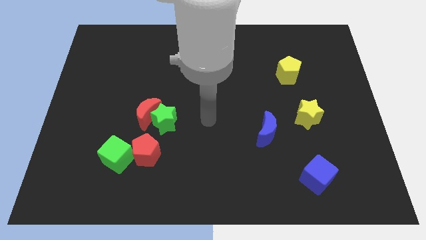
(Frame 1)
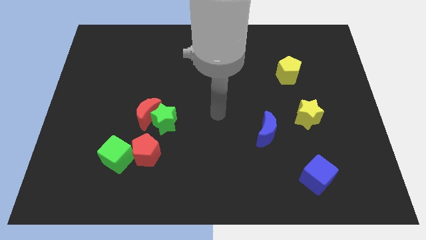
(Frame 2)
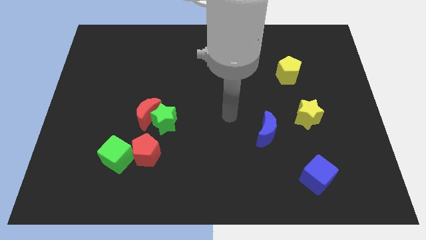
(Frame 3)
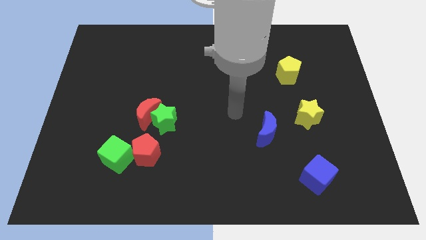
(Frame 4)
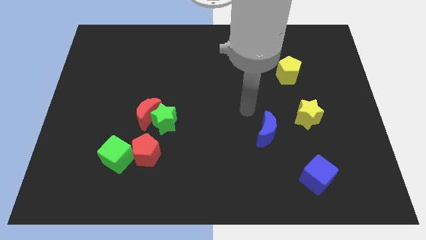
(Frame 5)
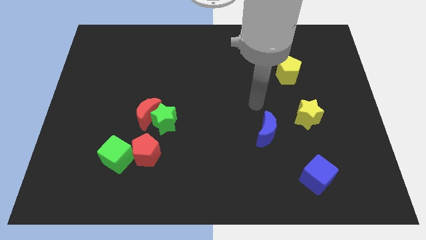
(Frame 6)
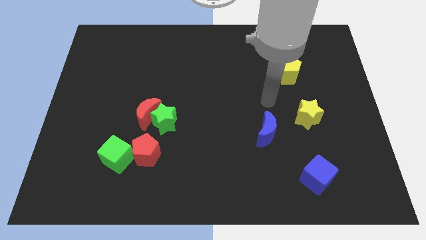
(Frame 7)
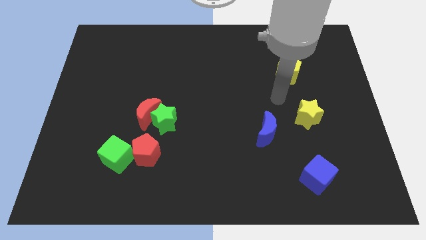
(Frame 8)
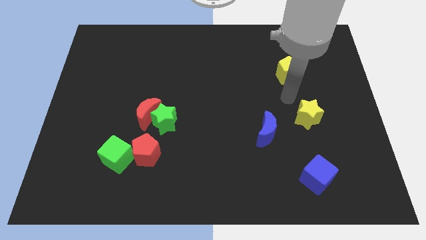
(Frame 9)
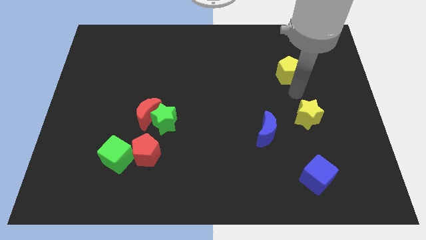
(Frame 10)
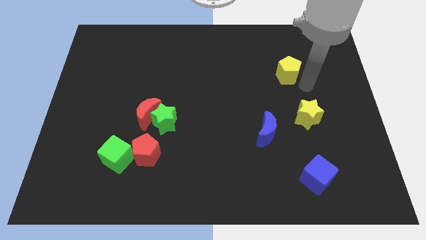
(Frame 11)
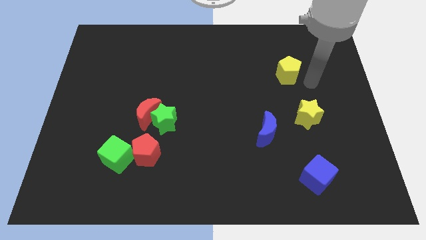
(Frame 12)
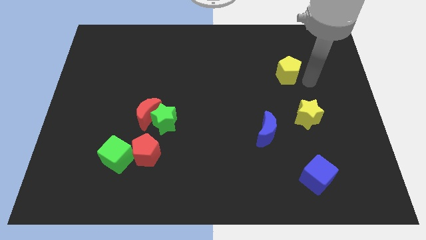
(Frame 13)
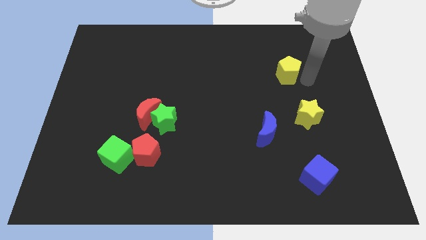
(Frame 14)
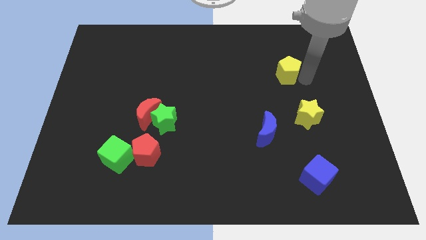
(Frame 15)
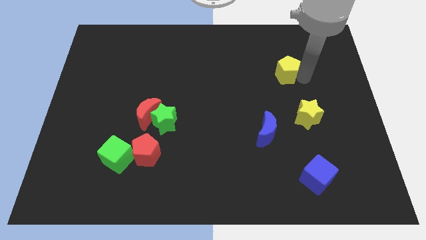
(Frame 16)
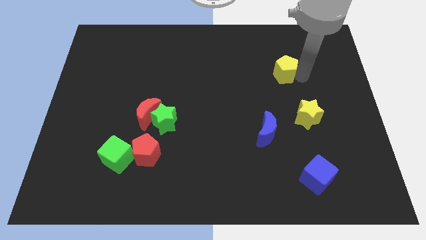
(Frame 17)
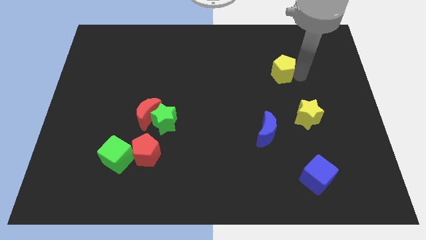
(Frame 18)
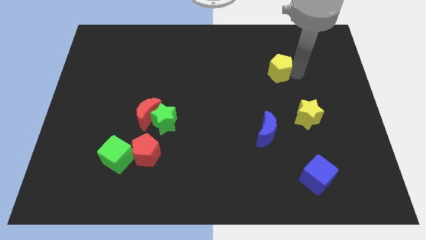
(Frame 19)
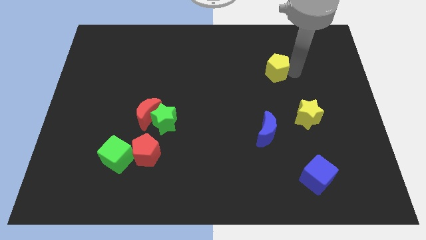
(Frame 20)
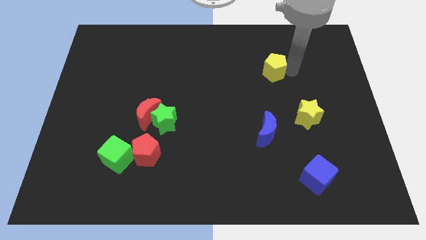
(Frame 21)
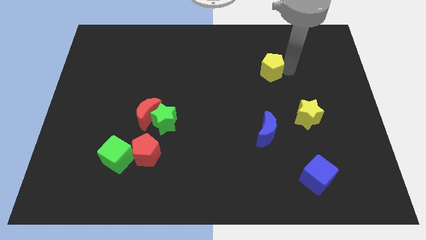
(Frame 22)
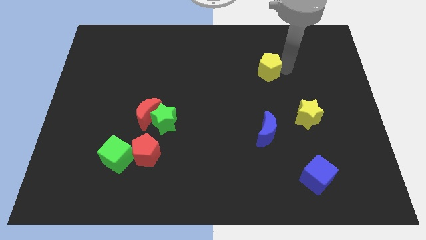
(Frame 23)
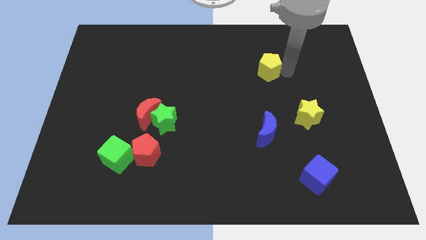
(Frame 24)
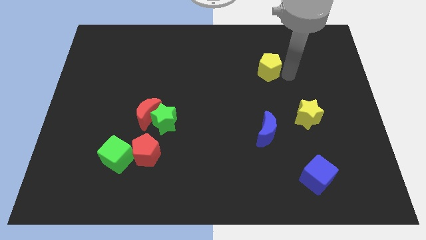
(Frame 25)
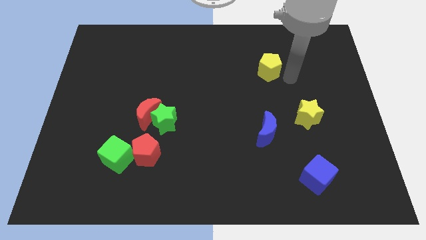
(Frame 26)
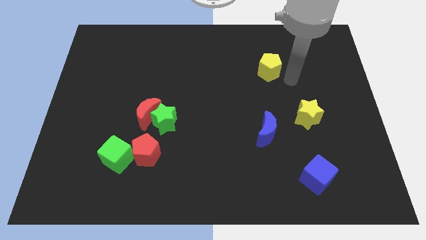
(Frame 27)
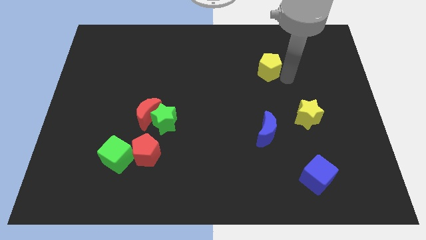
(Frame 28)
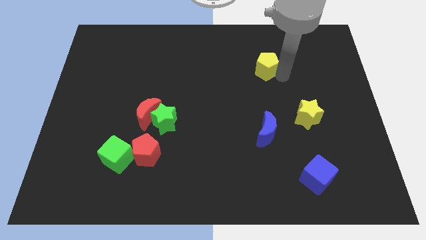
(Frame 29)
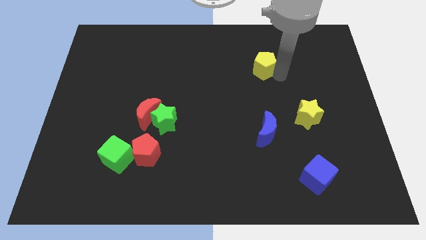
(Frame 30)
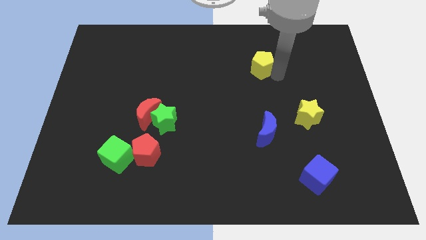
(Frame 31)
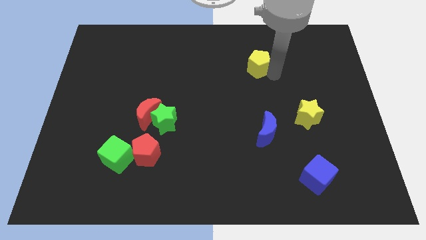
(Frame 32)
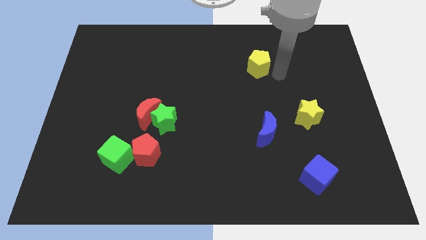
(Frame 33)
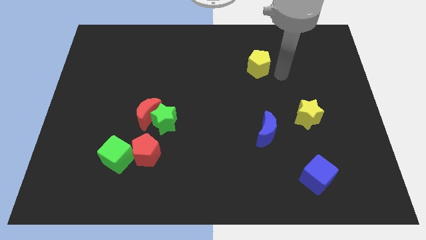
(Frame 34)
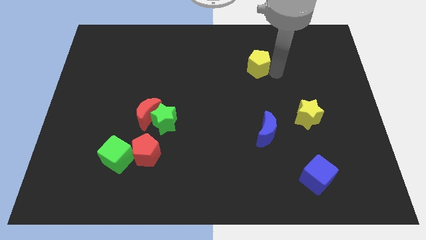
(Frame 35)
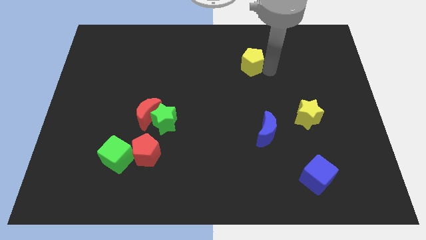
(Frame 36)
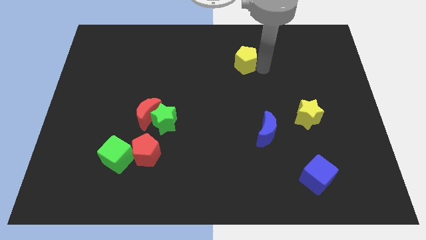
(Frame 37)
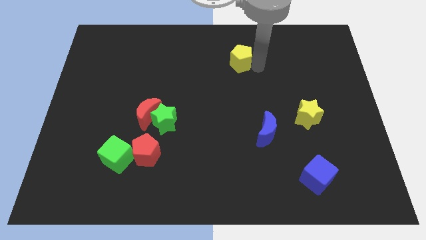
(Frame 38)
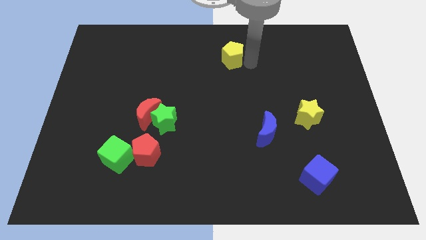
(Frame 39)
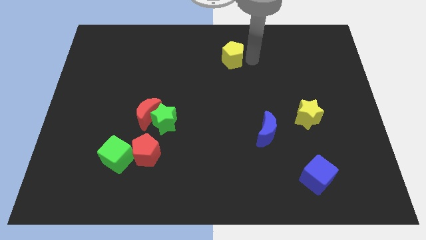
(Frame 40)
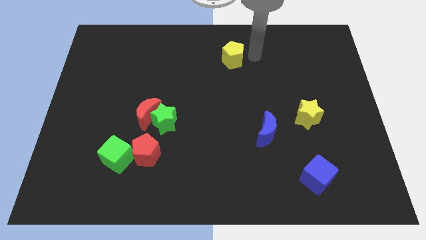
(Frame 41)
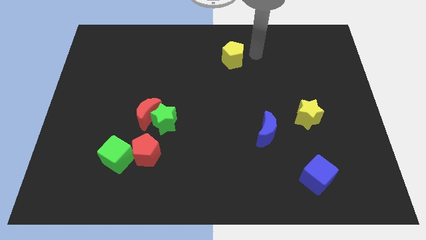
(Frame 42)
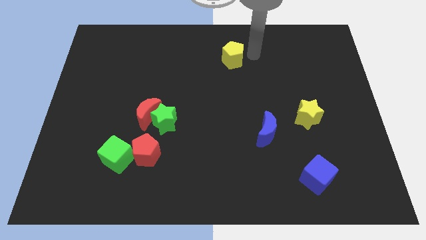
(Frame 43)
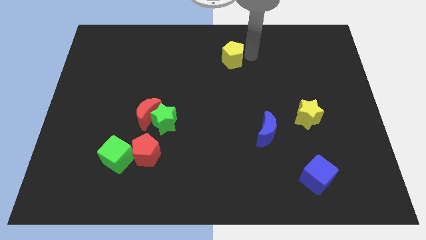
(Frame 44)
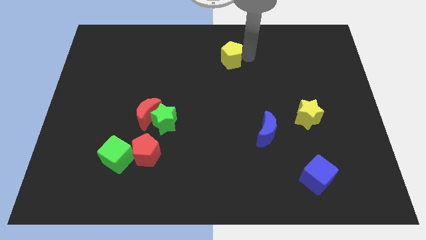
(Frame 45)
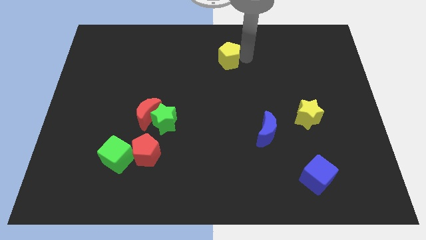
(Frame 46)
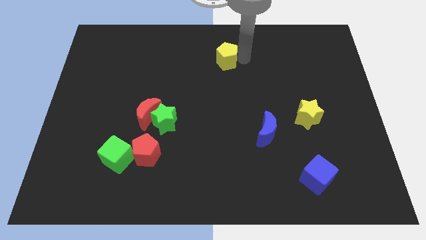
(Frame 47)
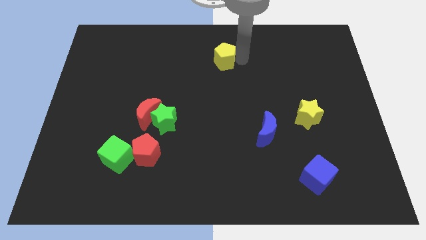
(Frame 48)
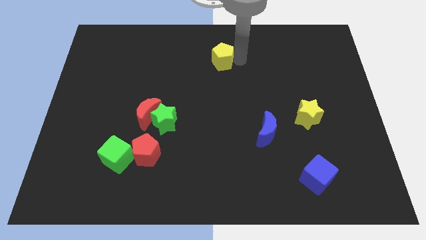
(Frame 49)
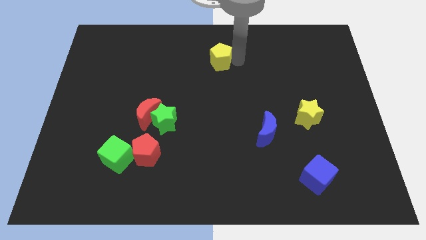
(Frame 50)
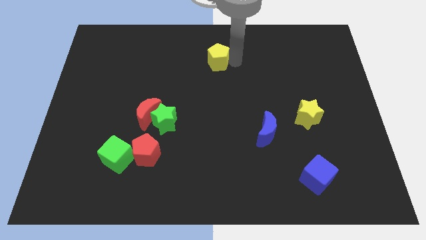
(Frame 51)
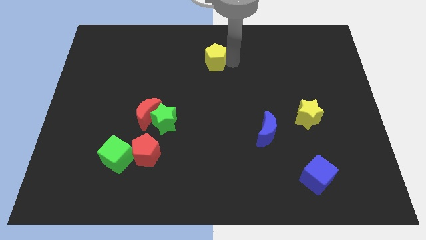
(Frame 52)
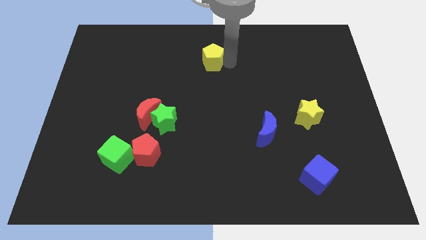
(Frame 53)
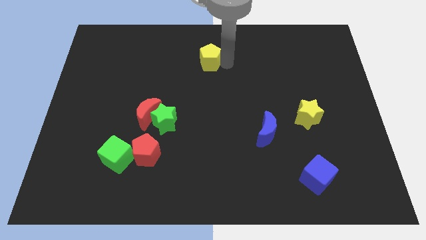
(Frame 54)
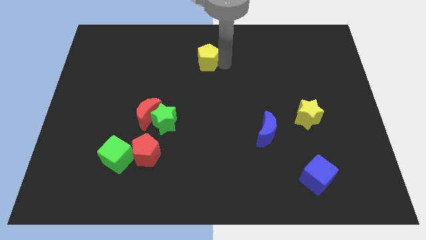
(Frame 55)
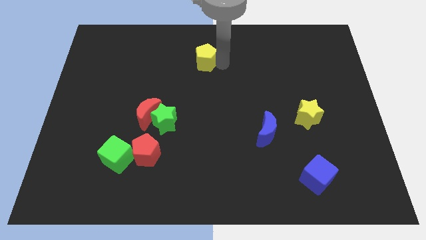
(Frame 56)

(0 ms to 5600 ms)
move the yellow pentagon to the left

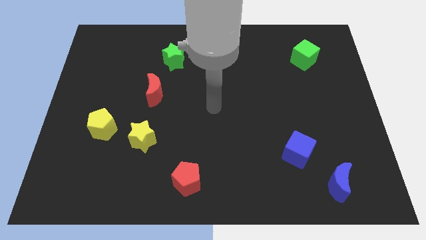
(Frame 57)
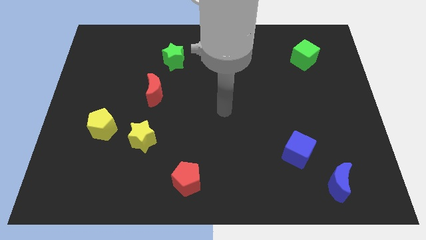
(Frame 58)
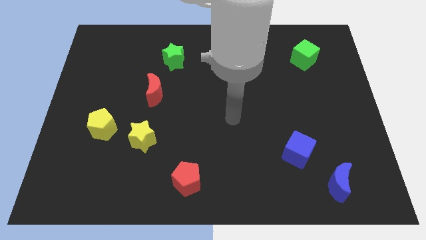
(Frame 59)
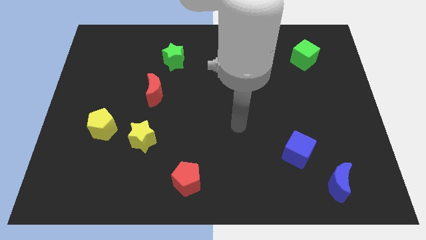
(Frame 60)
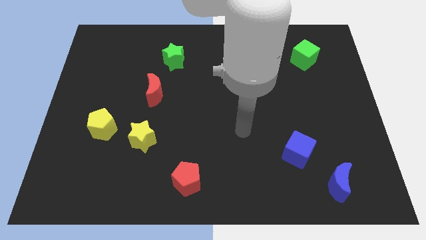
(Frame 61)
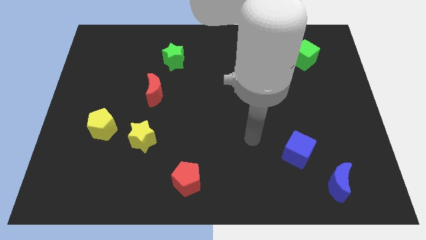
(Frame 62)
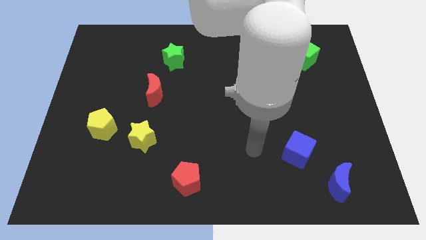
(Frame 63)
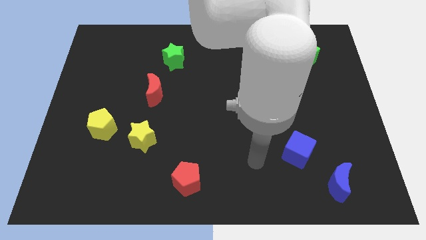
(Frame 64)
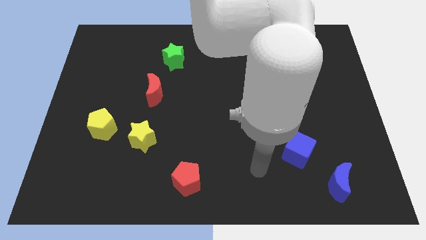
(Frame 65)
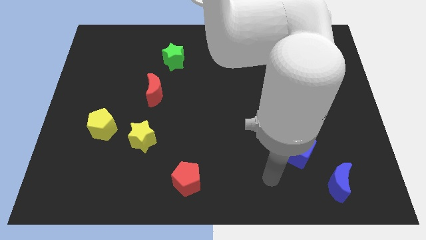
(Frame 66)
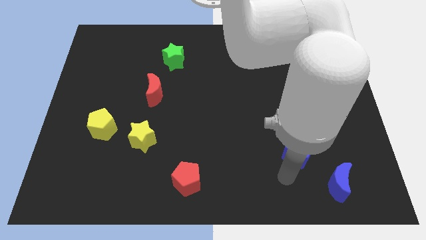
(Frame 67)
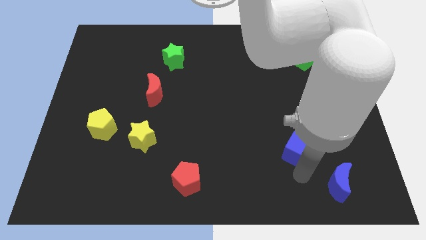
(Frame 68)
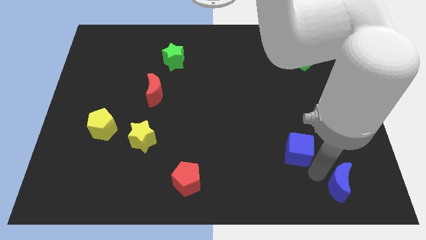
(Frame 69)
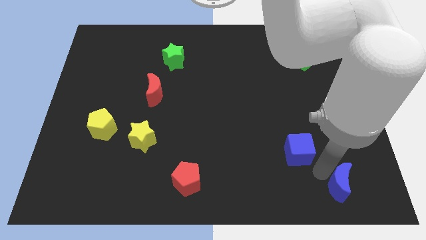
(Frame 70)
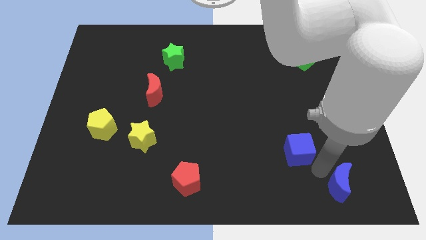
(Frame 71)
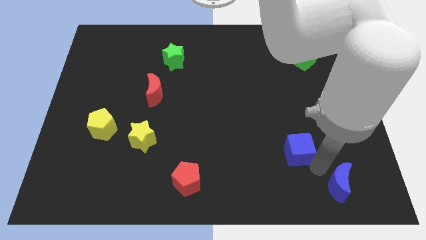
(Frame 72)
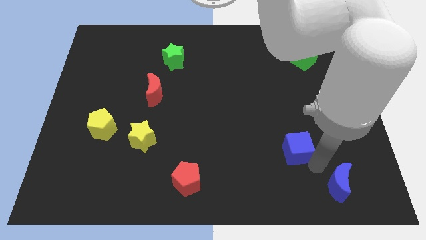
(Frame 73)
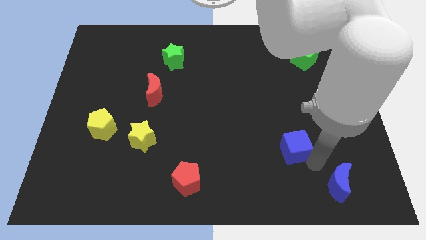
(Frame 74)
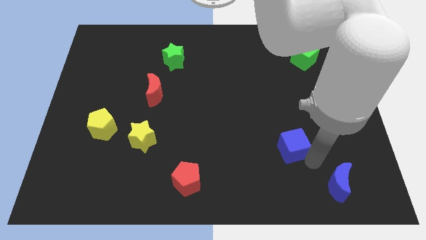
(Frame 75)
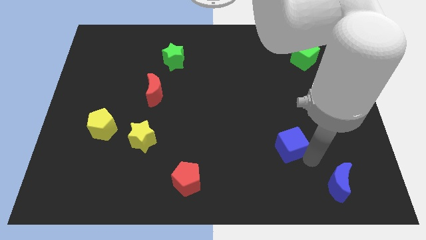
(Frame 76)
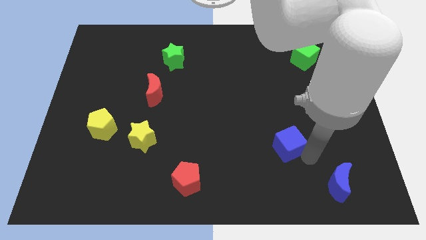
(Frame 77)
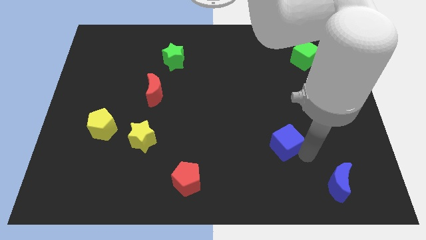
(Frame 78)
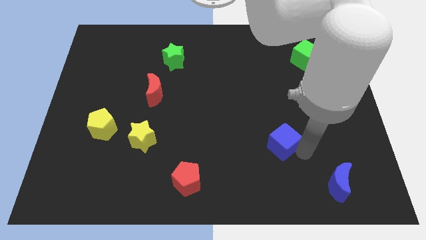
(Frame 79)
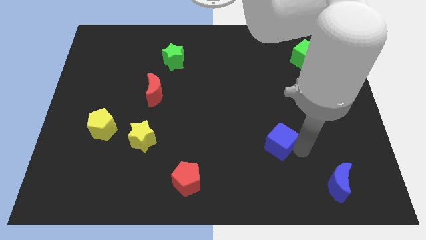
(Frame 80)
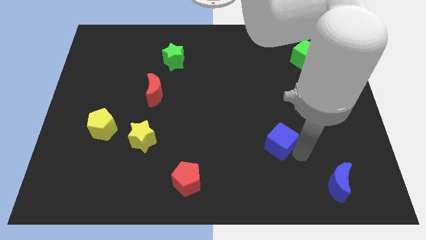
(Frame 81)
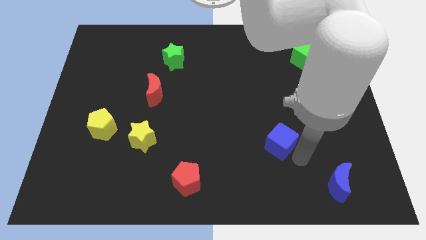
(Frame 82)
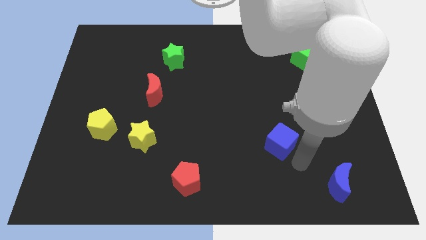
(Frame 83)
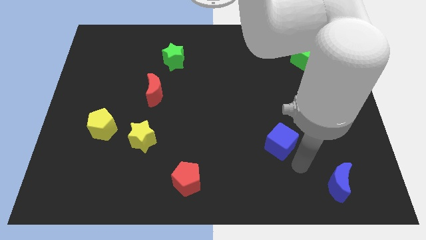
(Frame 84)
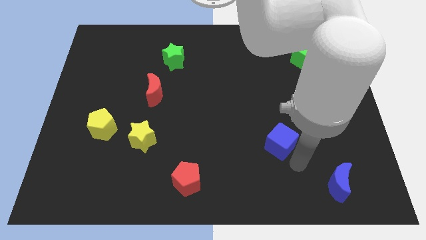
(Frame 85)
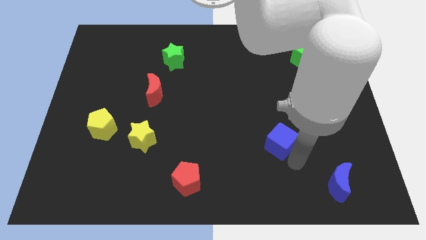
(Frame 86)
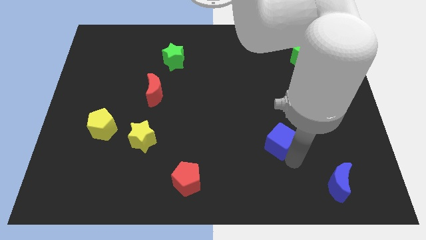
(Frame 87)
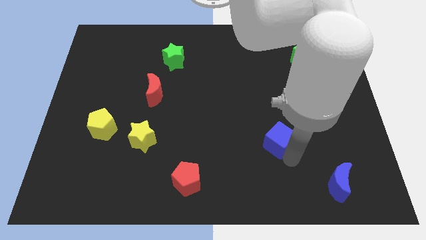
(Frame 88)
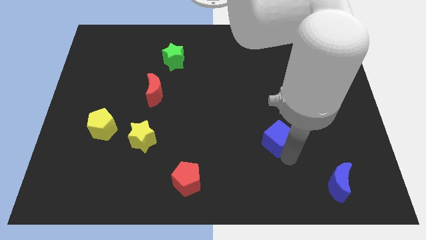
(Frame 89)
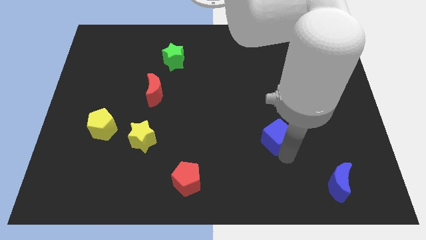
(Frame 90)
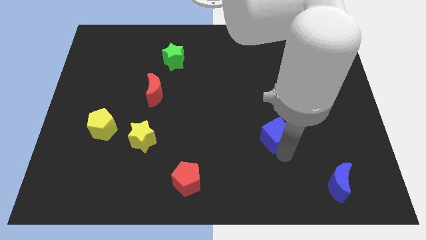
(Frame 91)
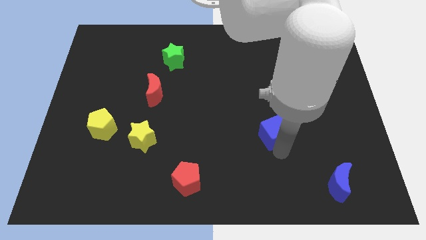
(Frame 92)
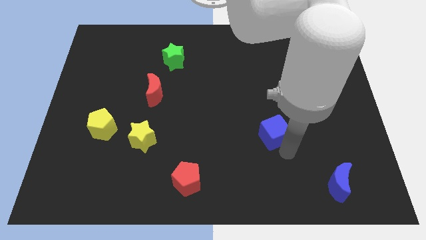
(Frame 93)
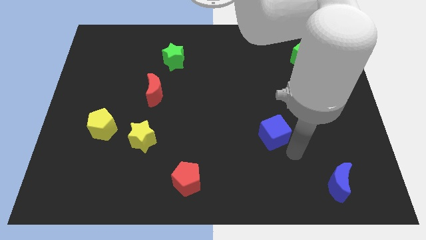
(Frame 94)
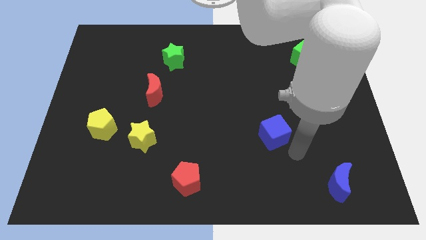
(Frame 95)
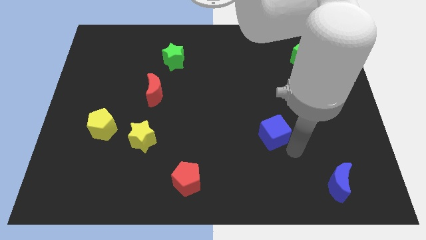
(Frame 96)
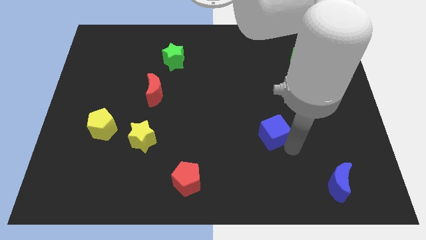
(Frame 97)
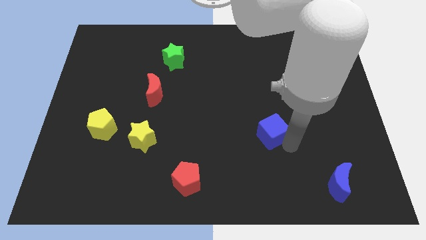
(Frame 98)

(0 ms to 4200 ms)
slide the blue cube a bit up and to the left
